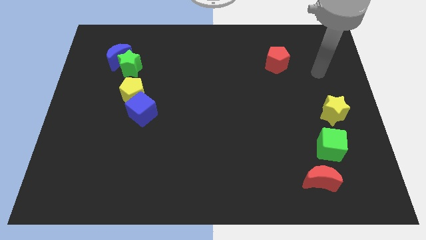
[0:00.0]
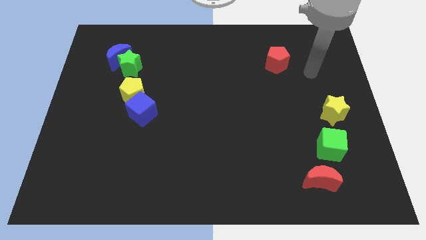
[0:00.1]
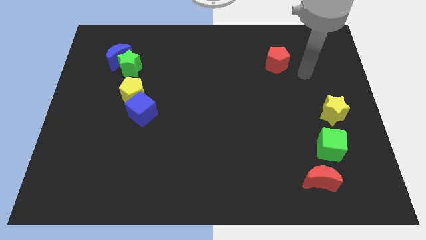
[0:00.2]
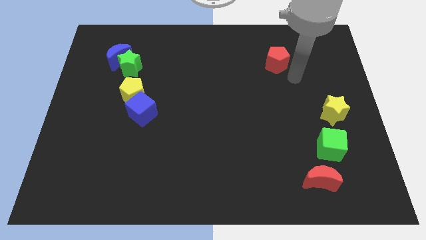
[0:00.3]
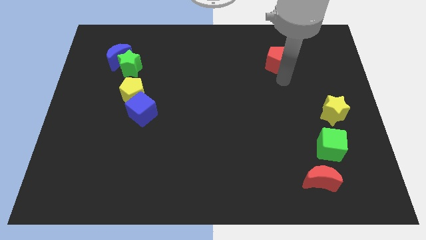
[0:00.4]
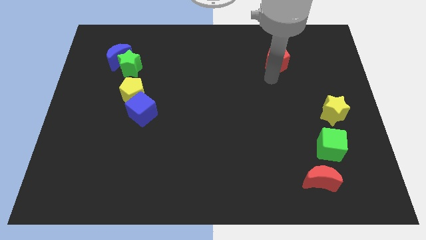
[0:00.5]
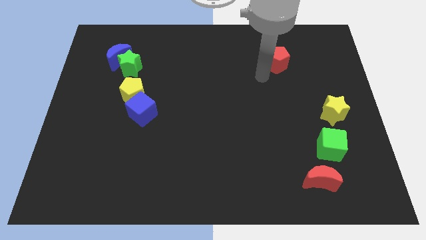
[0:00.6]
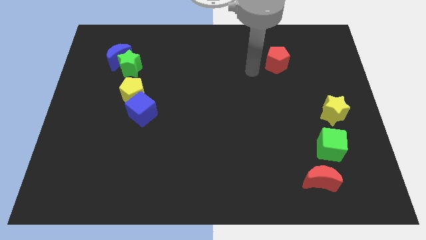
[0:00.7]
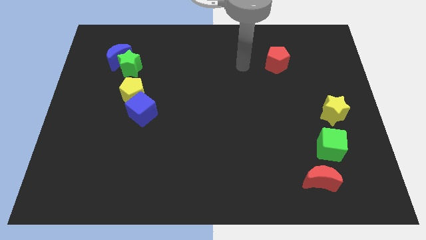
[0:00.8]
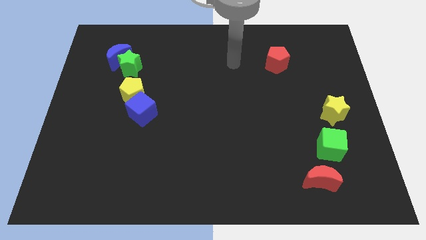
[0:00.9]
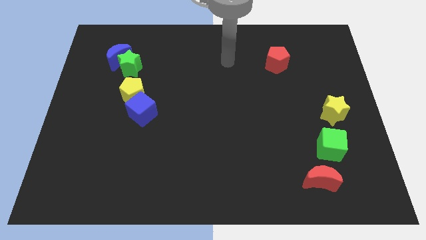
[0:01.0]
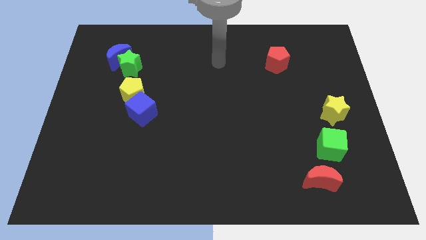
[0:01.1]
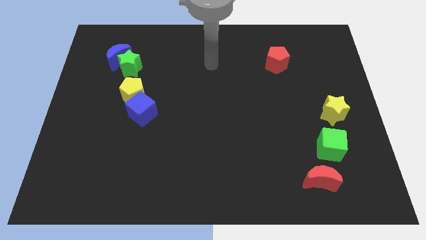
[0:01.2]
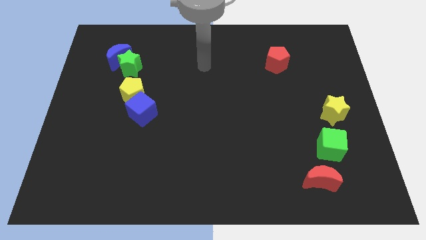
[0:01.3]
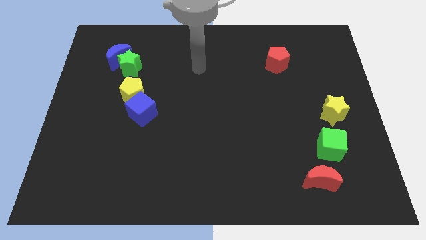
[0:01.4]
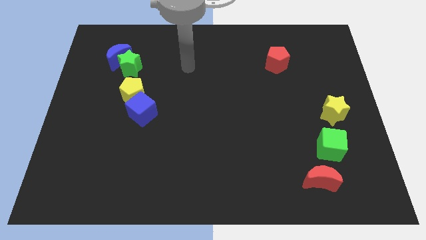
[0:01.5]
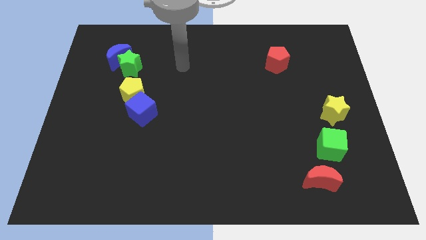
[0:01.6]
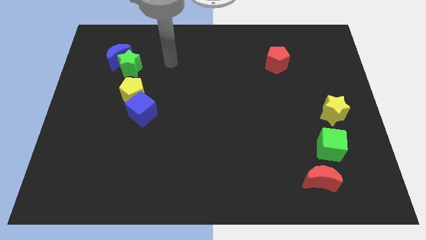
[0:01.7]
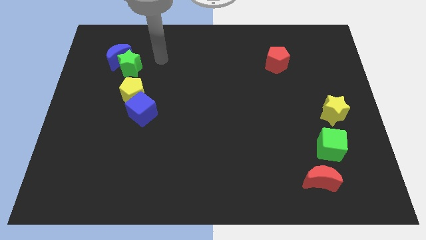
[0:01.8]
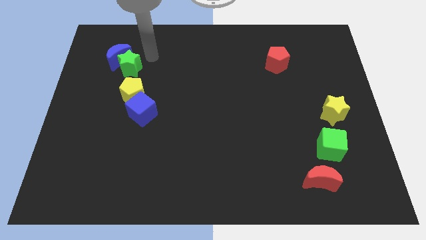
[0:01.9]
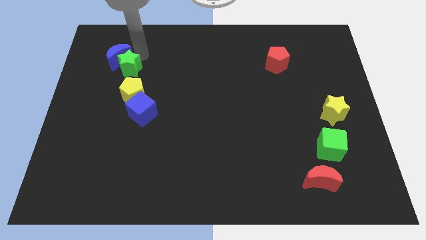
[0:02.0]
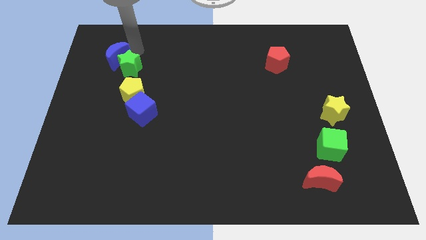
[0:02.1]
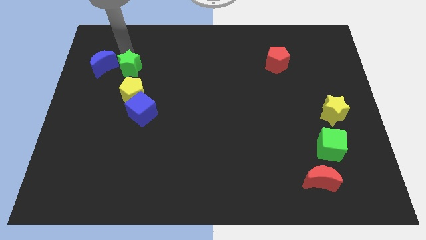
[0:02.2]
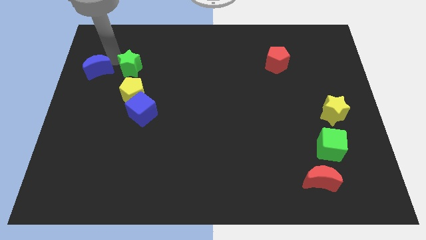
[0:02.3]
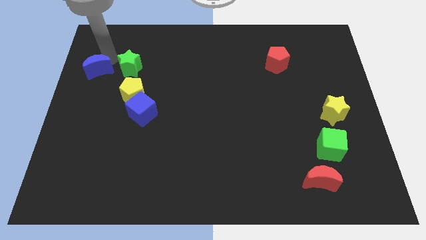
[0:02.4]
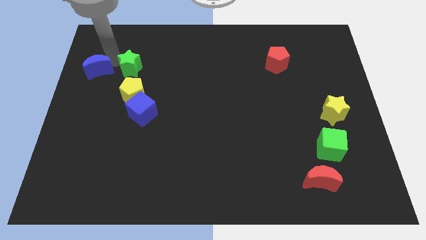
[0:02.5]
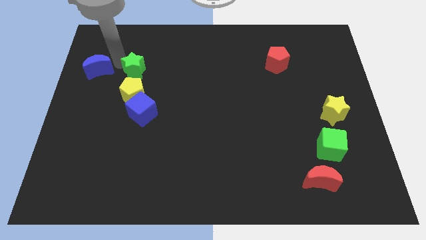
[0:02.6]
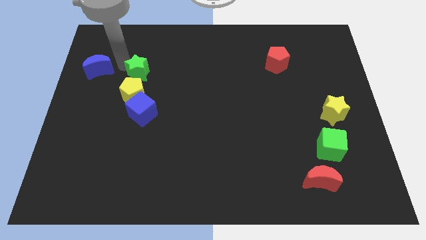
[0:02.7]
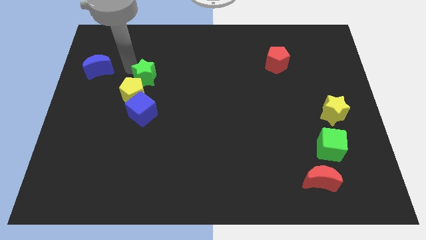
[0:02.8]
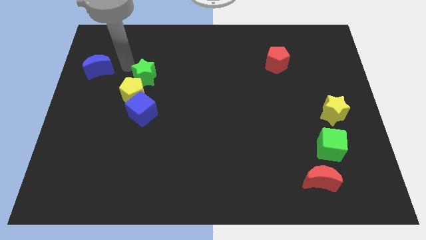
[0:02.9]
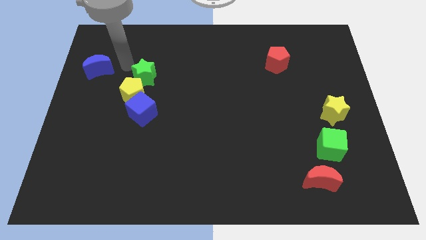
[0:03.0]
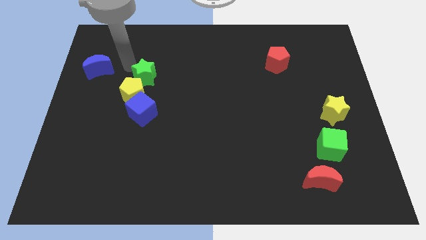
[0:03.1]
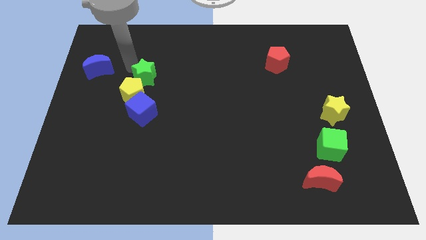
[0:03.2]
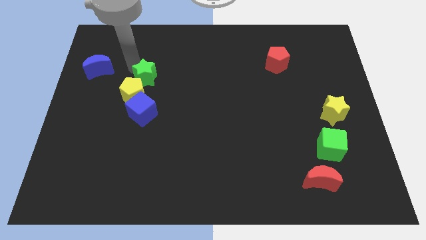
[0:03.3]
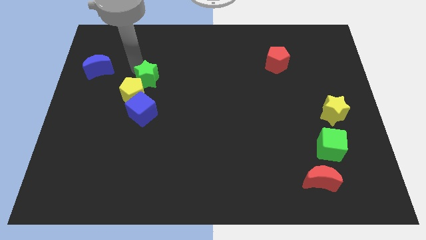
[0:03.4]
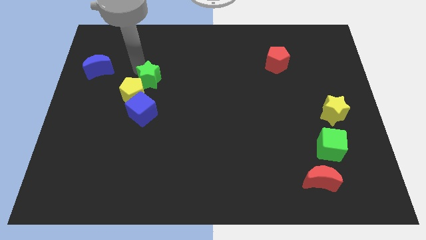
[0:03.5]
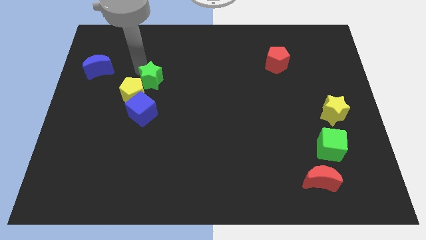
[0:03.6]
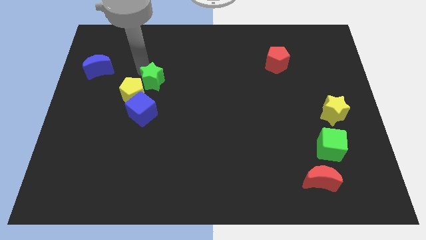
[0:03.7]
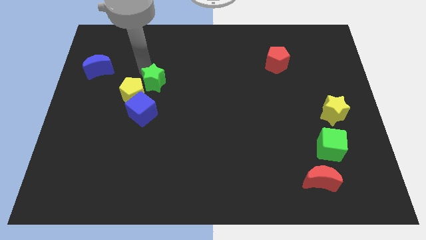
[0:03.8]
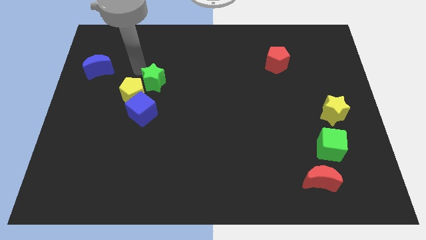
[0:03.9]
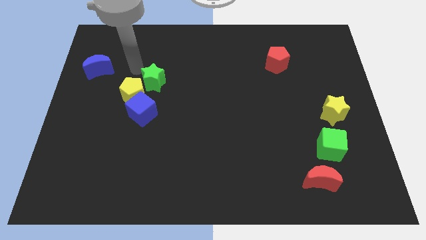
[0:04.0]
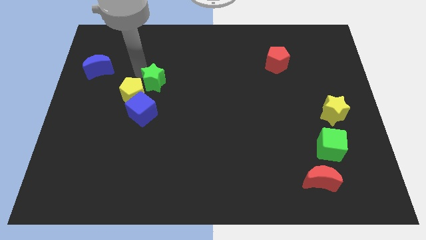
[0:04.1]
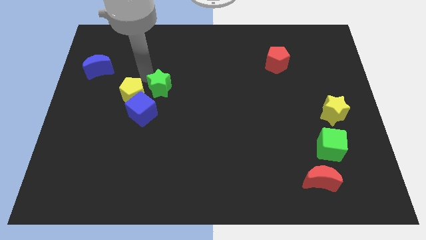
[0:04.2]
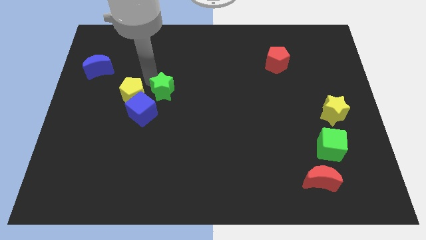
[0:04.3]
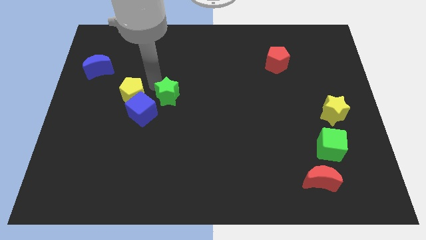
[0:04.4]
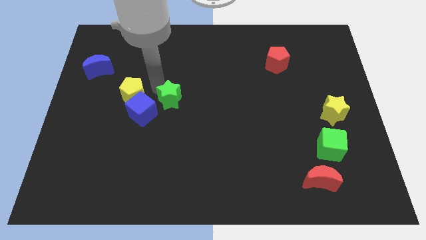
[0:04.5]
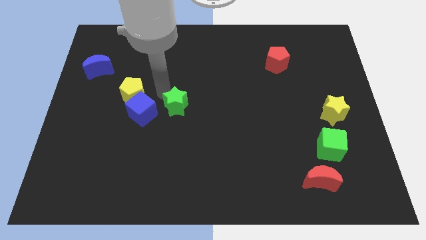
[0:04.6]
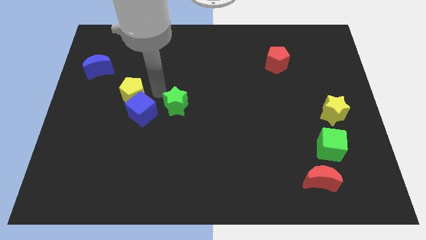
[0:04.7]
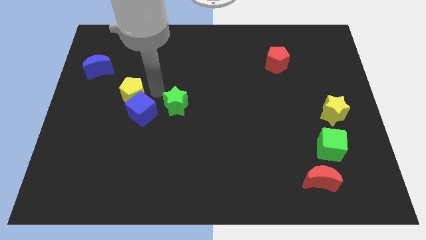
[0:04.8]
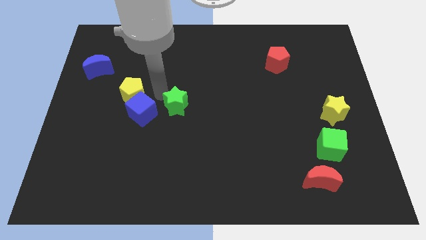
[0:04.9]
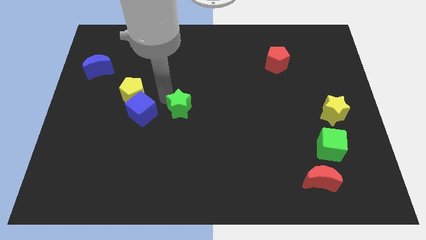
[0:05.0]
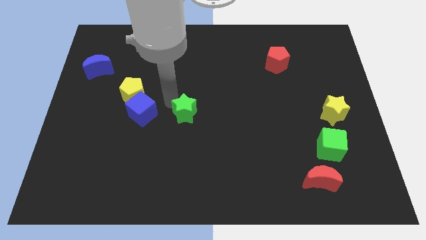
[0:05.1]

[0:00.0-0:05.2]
push the green star down and then right

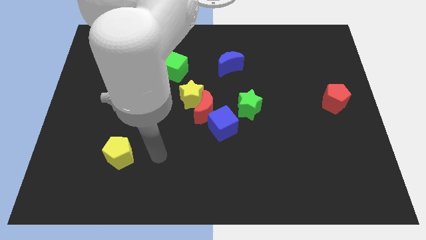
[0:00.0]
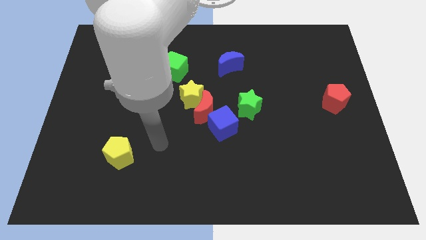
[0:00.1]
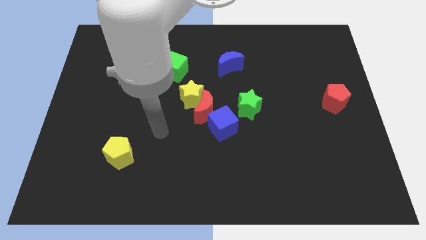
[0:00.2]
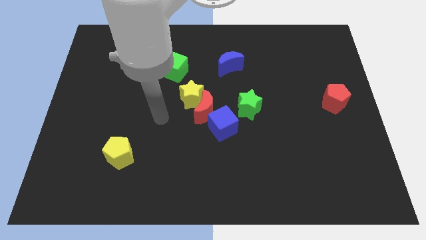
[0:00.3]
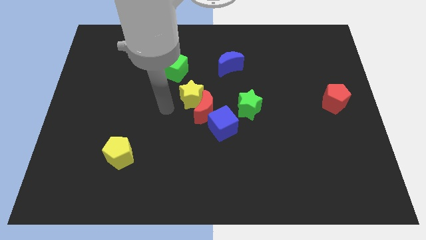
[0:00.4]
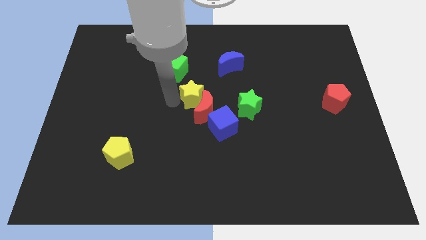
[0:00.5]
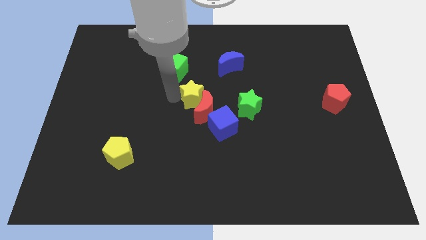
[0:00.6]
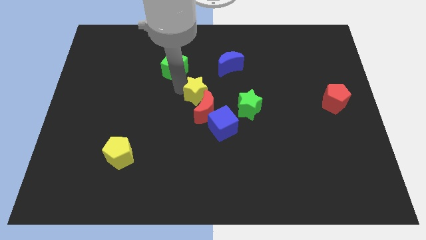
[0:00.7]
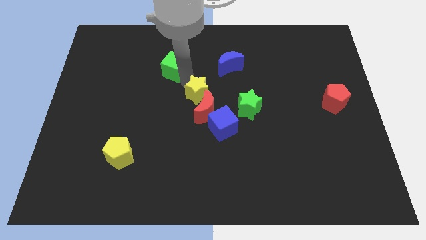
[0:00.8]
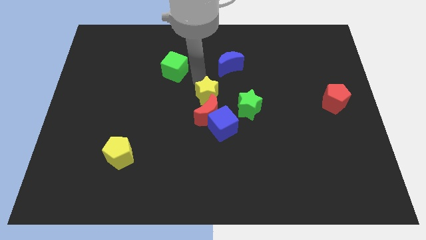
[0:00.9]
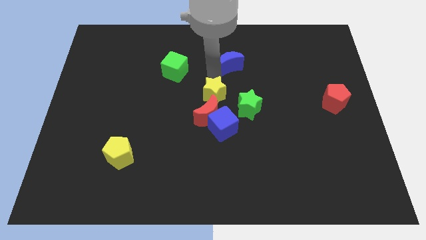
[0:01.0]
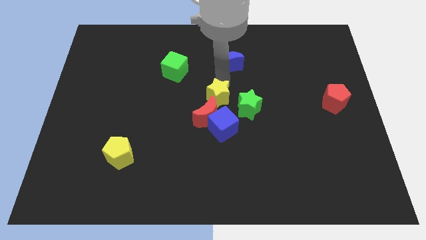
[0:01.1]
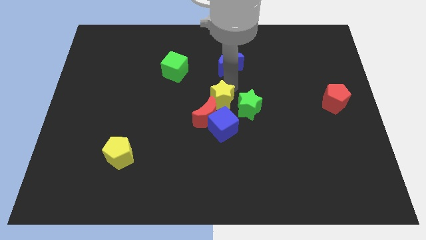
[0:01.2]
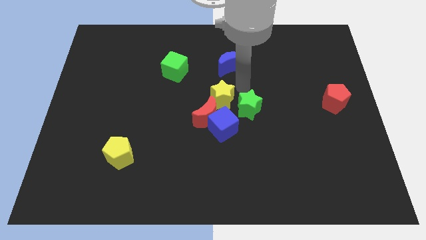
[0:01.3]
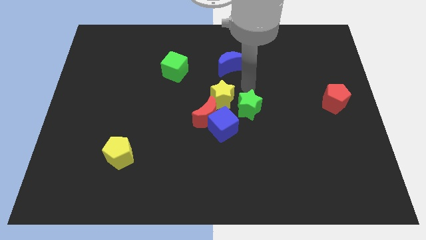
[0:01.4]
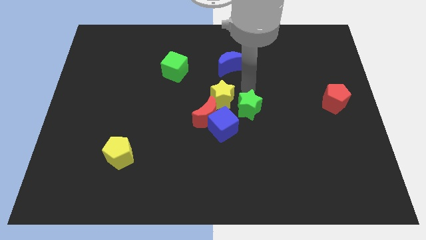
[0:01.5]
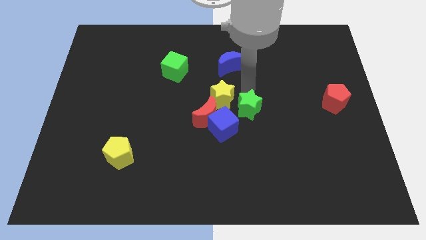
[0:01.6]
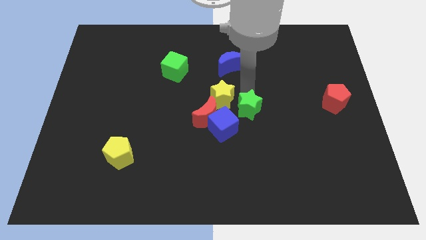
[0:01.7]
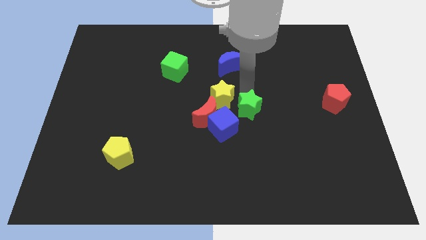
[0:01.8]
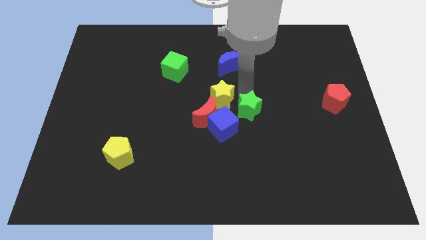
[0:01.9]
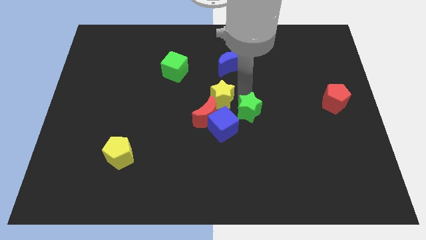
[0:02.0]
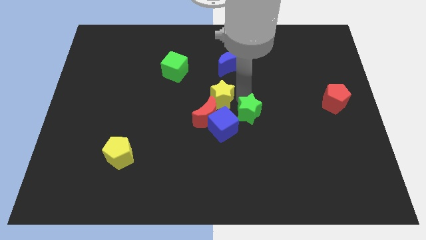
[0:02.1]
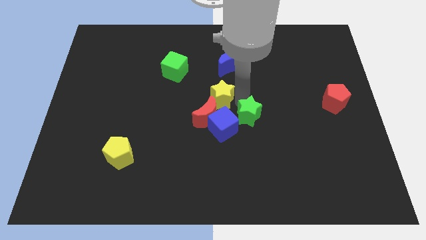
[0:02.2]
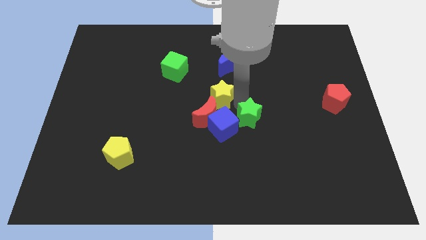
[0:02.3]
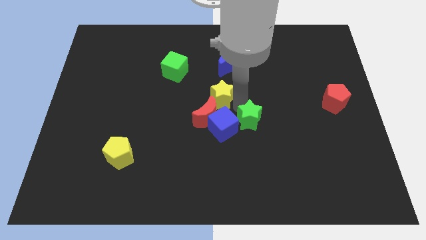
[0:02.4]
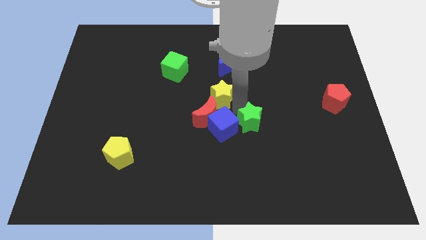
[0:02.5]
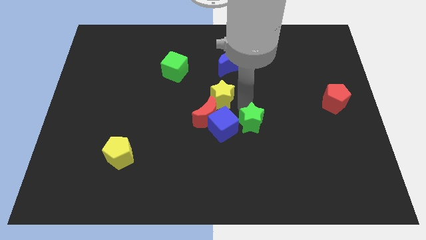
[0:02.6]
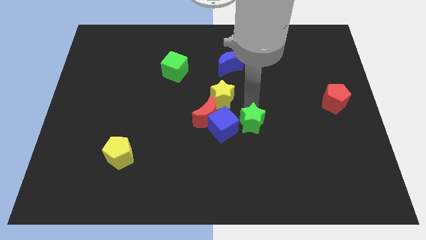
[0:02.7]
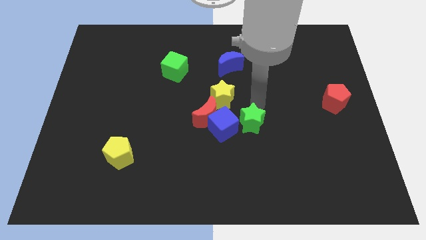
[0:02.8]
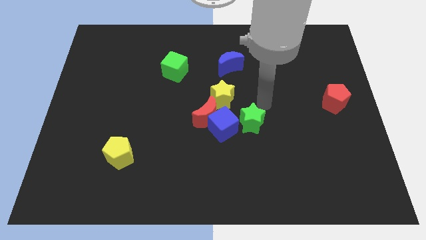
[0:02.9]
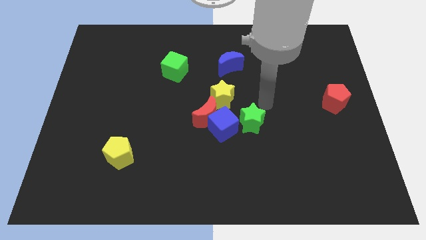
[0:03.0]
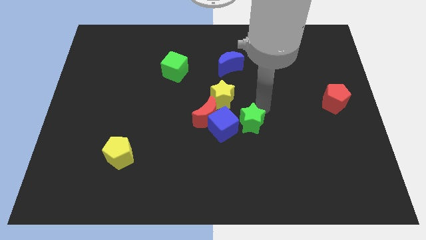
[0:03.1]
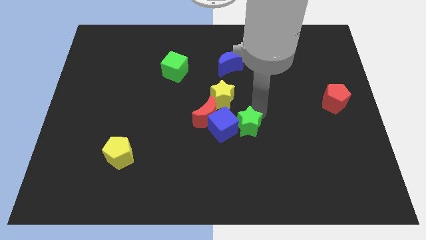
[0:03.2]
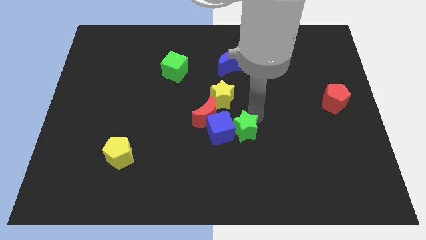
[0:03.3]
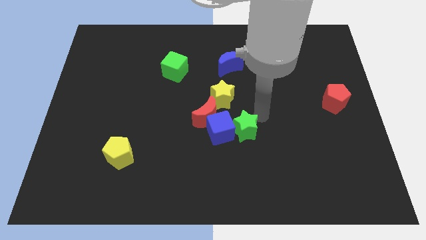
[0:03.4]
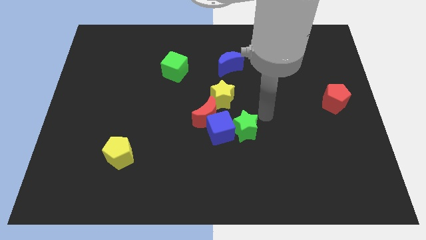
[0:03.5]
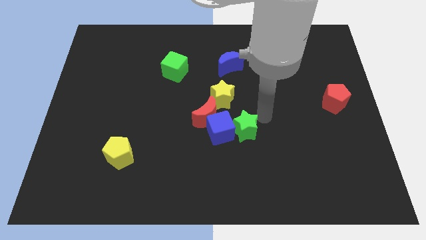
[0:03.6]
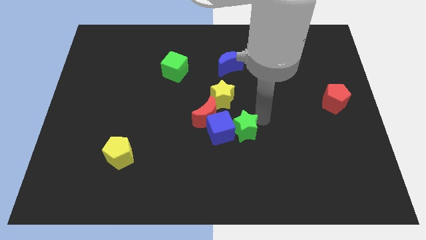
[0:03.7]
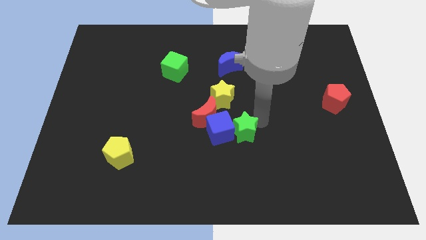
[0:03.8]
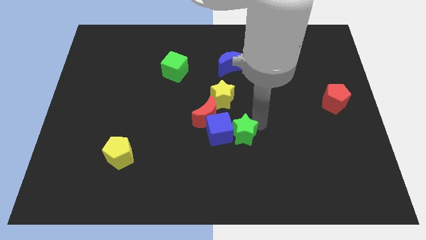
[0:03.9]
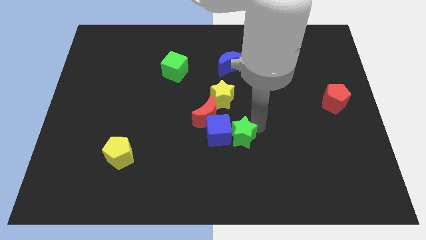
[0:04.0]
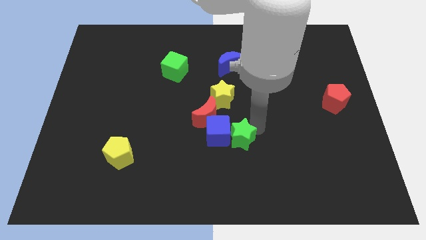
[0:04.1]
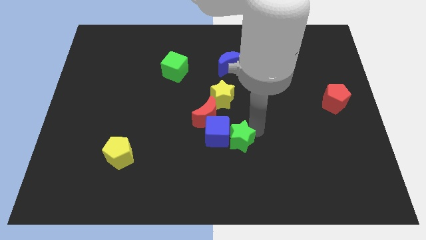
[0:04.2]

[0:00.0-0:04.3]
move the green star downwards and to the left diagonally somewhat
